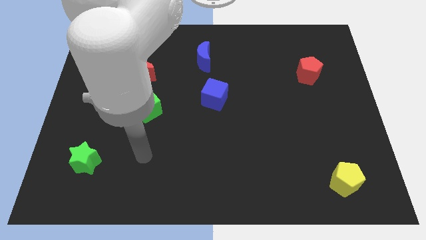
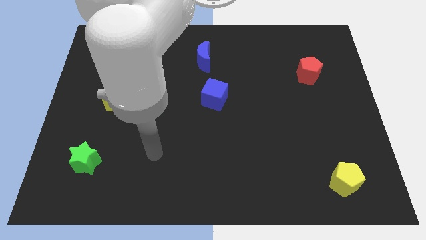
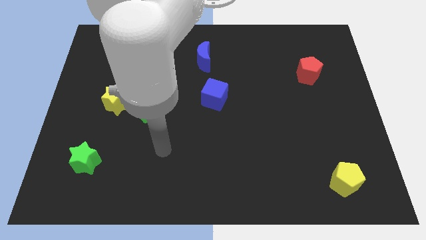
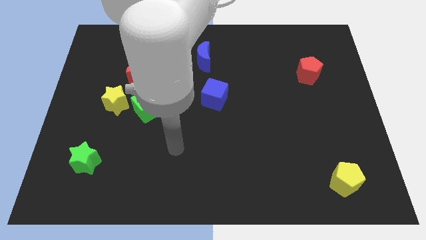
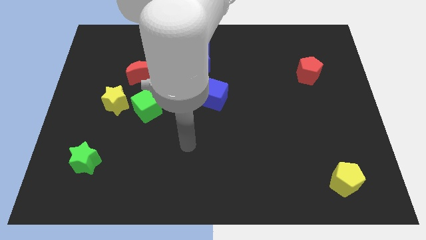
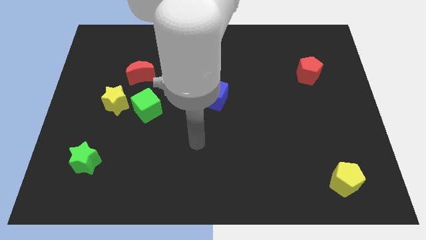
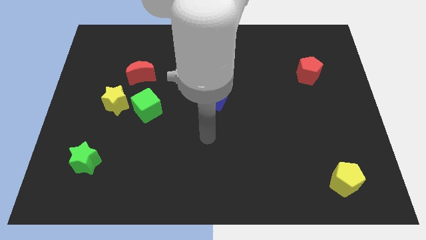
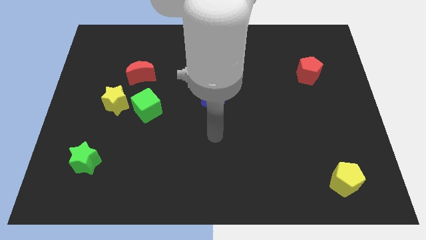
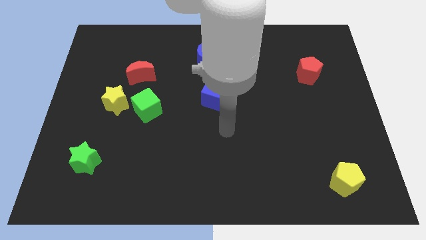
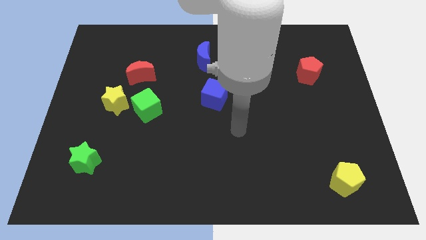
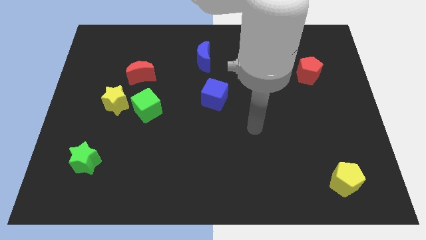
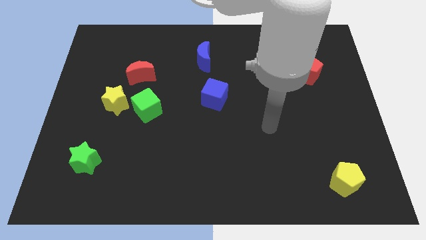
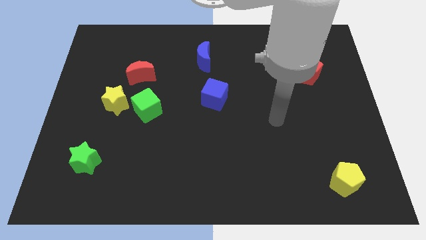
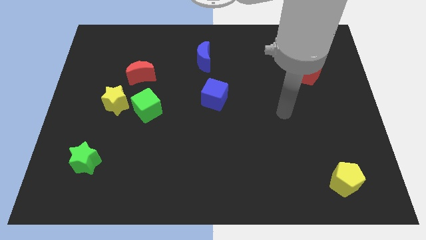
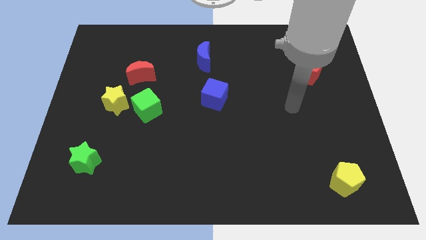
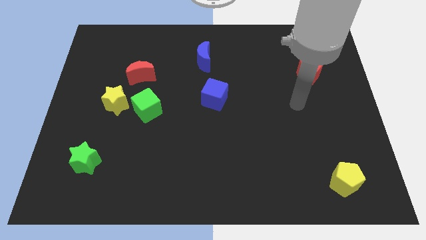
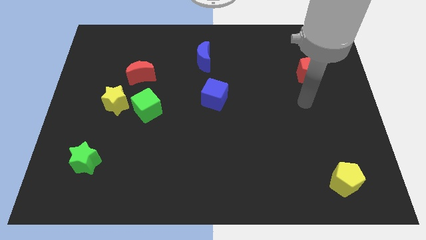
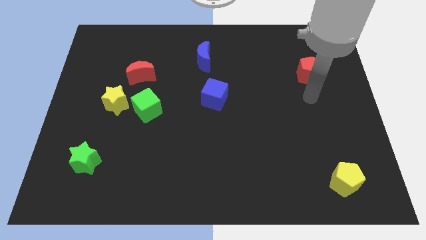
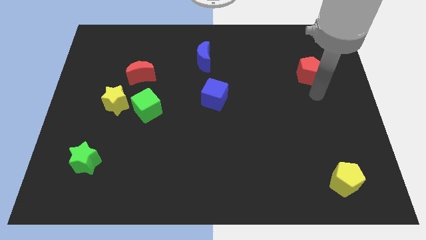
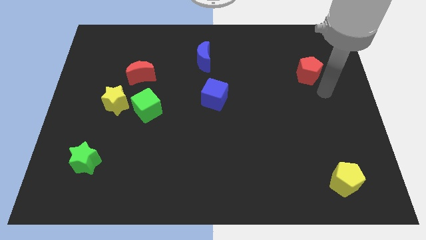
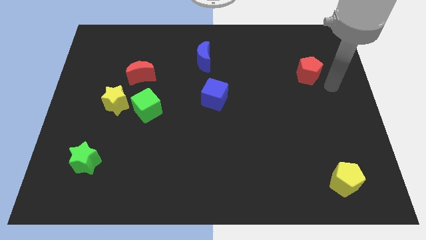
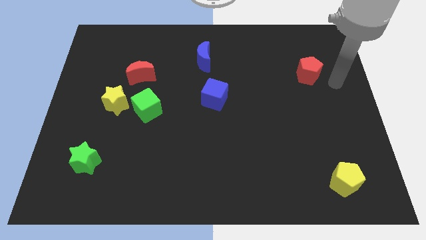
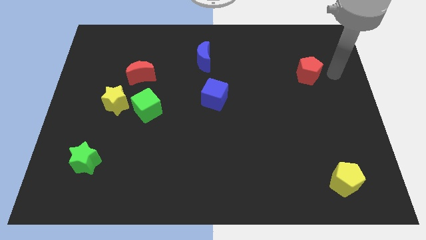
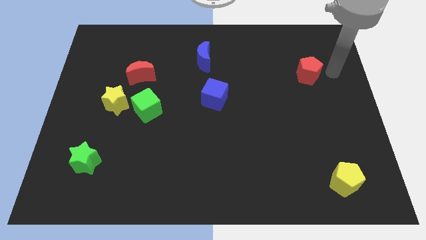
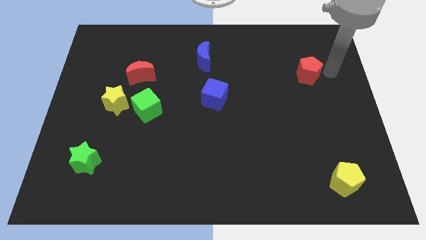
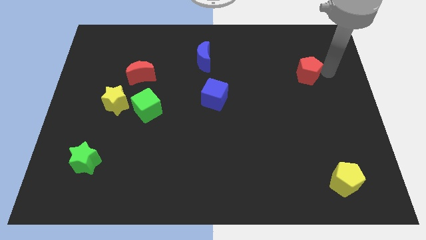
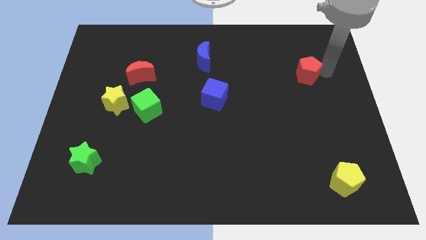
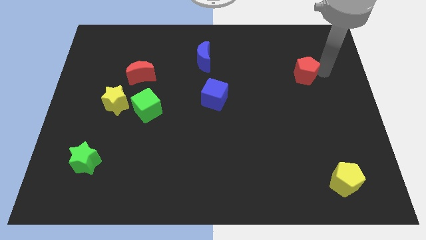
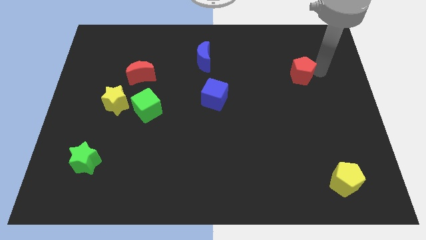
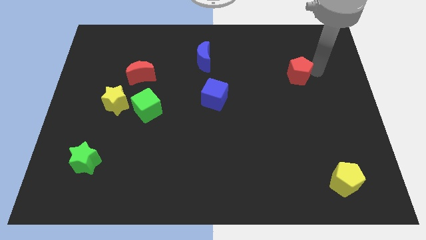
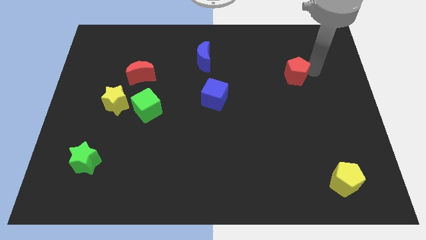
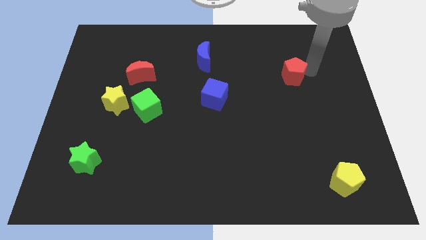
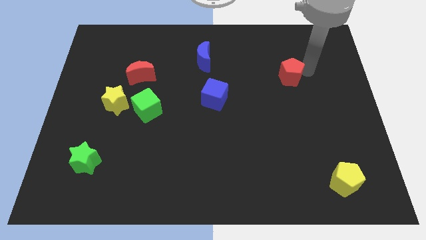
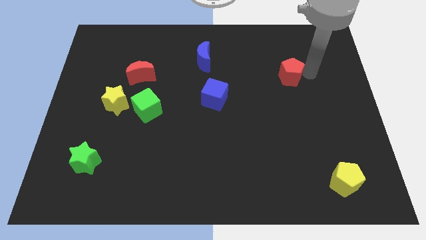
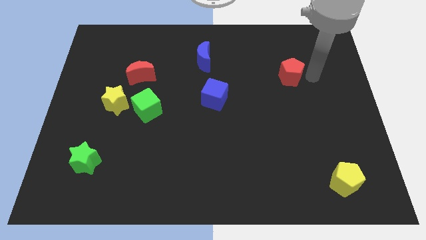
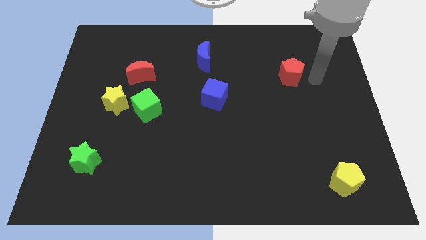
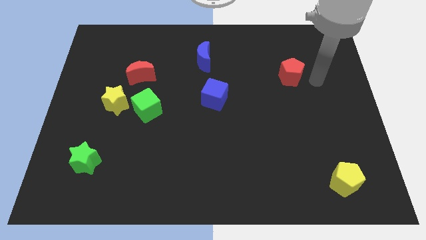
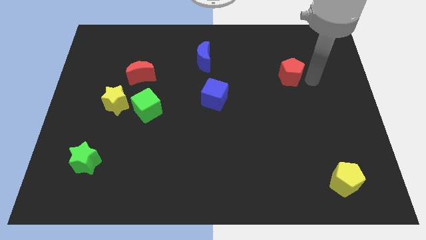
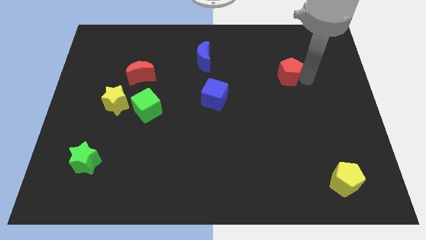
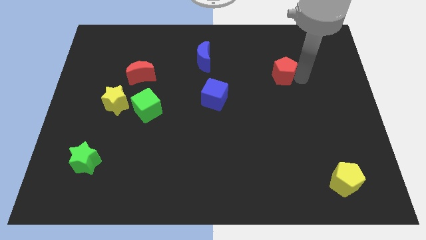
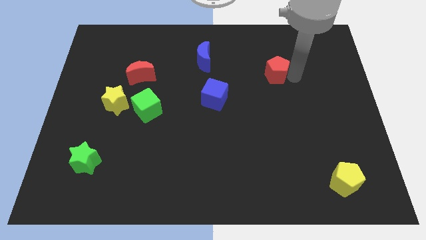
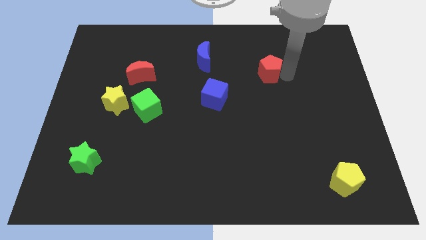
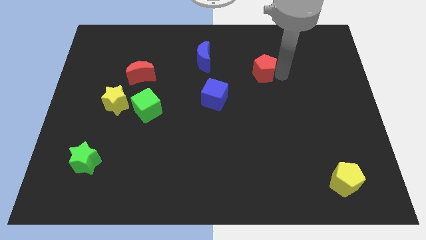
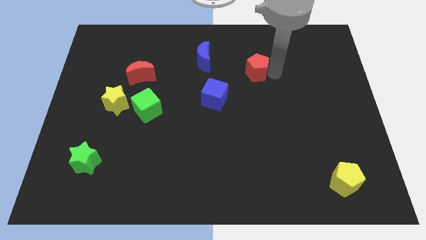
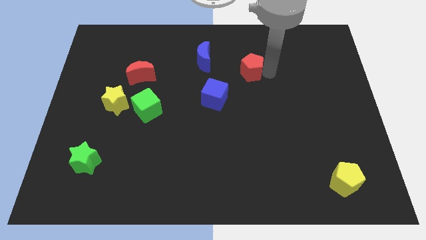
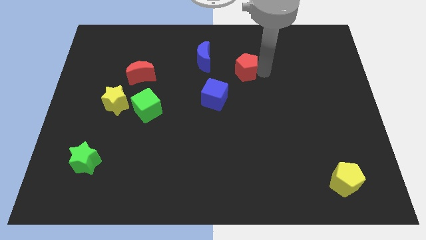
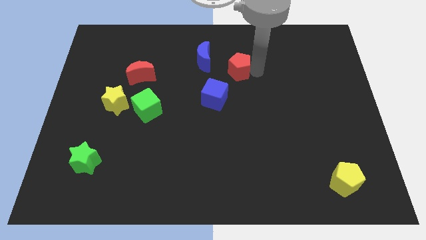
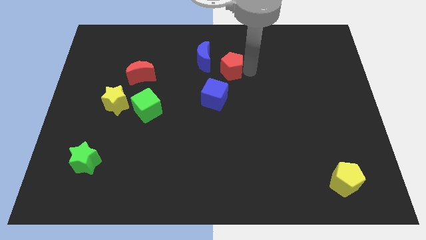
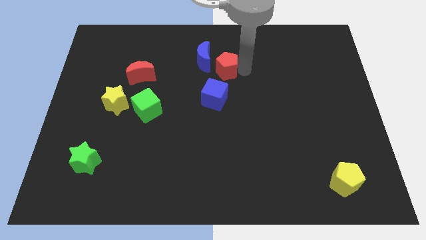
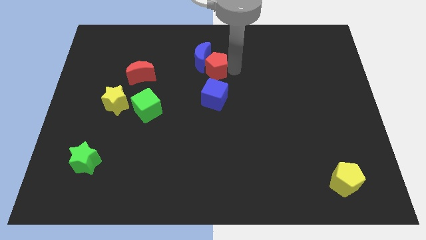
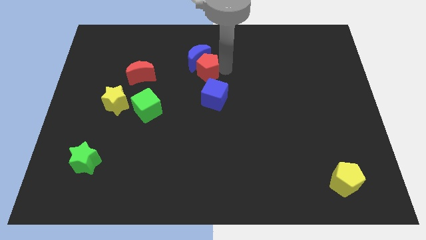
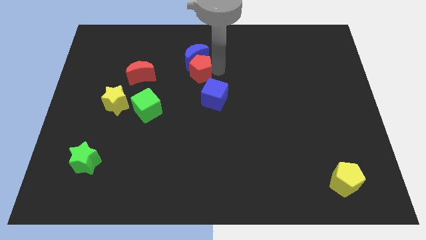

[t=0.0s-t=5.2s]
put the red pentagon just right of the red moon
